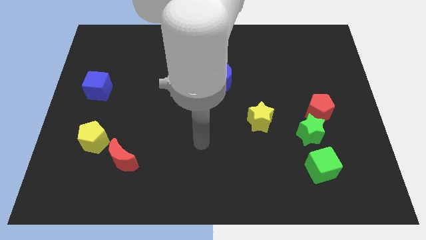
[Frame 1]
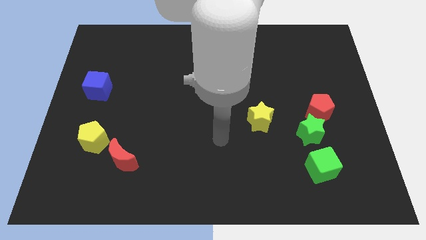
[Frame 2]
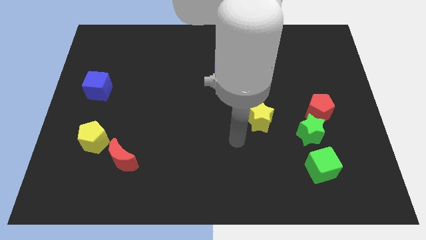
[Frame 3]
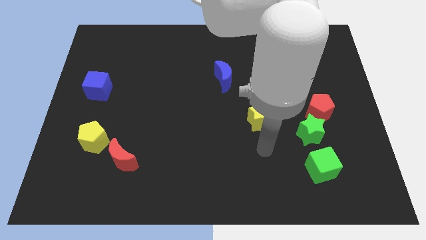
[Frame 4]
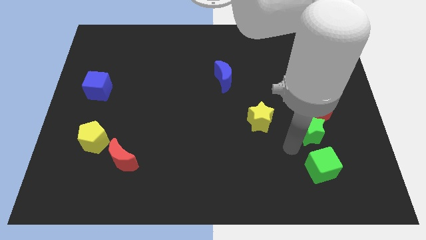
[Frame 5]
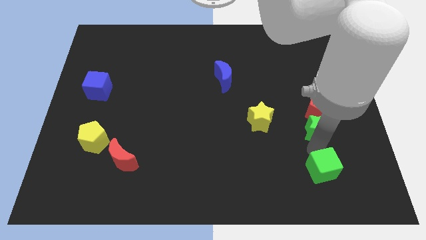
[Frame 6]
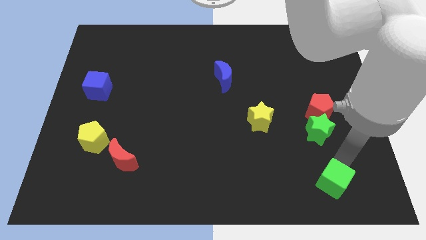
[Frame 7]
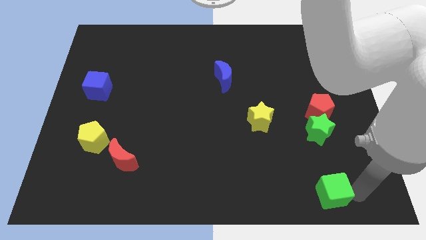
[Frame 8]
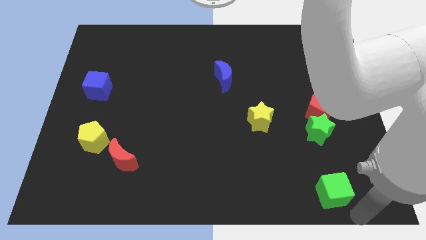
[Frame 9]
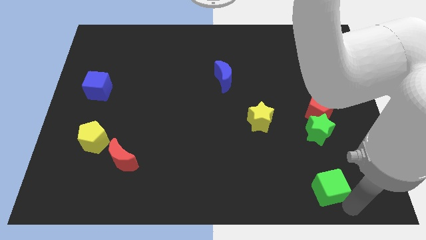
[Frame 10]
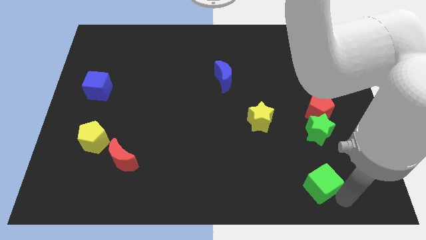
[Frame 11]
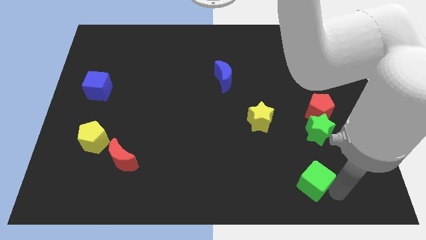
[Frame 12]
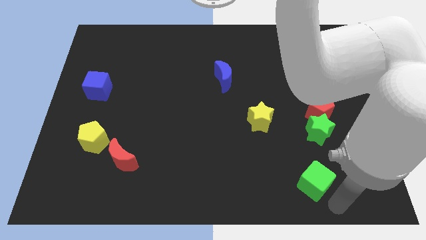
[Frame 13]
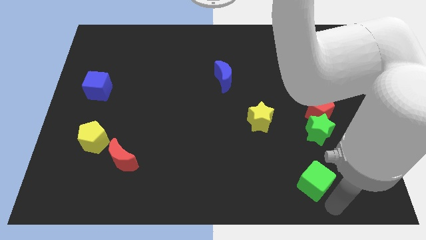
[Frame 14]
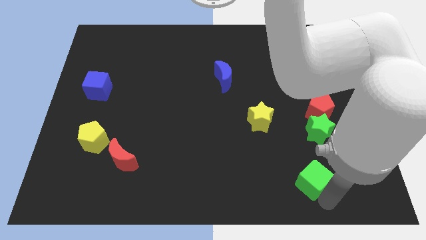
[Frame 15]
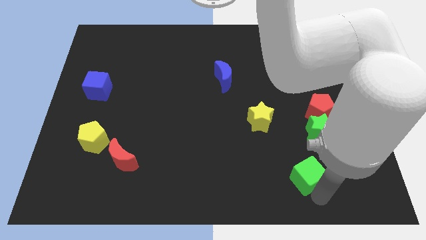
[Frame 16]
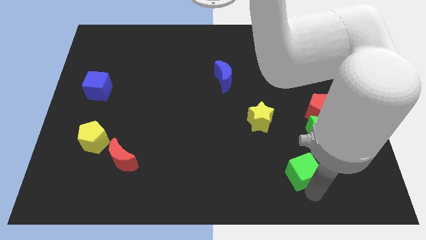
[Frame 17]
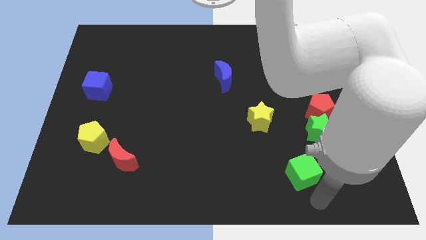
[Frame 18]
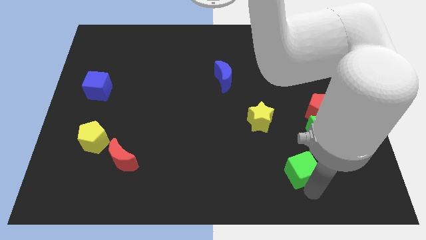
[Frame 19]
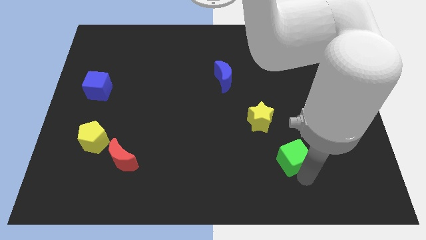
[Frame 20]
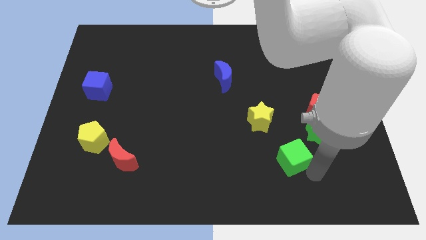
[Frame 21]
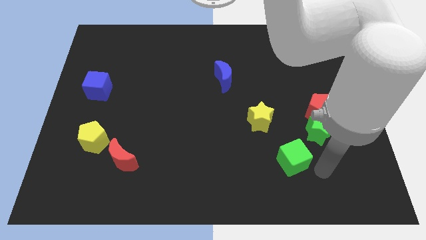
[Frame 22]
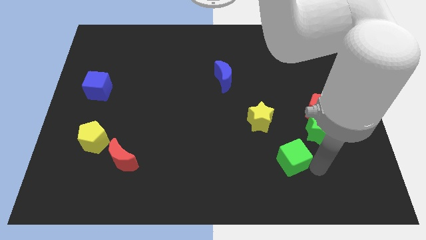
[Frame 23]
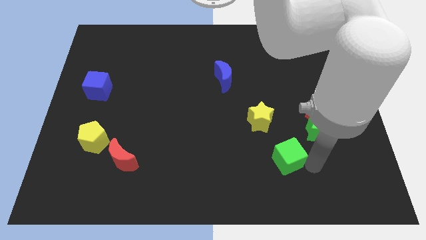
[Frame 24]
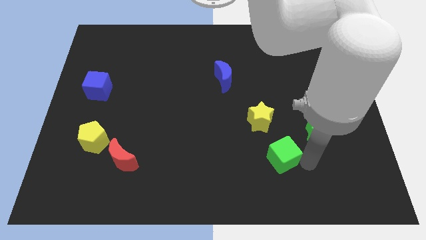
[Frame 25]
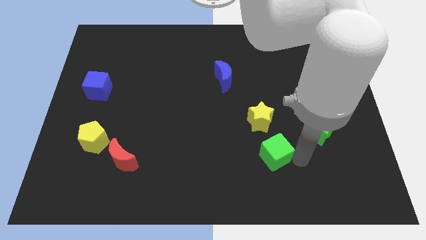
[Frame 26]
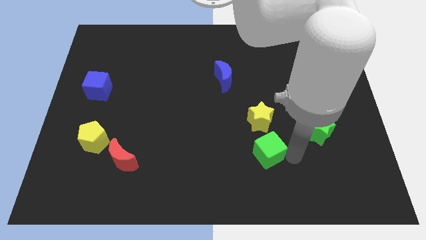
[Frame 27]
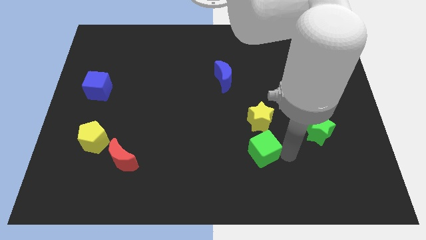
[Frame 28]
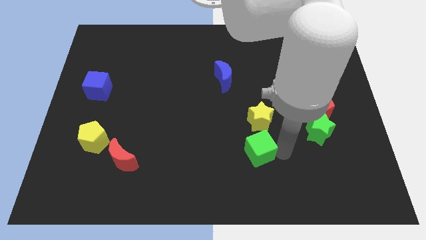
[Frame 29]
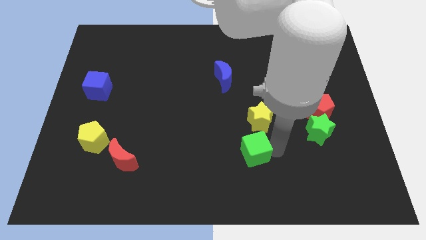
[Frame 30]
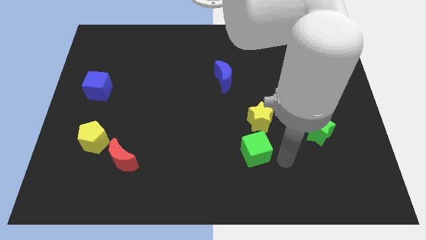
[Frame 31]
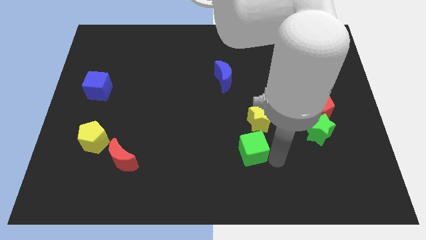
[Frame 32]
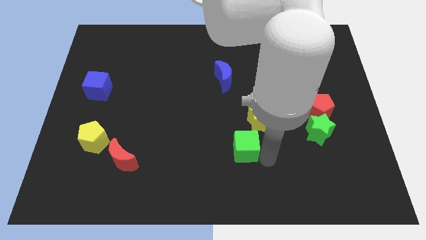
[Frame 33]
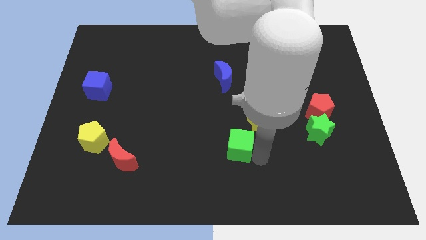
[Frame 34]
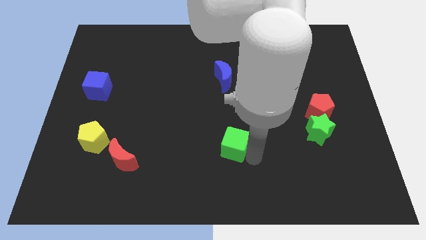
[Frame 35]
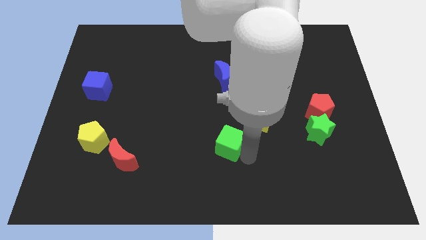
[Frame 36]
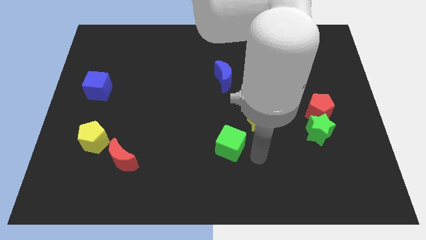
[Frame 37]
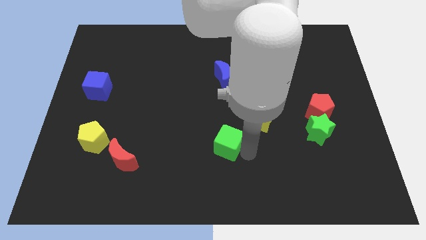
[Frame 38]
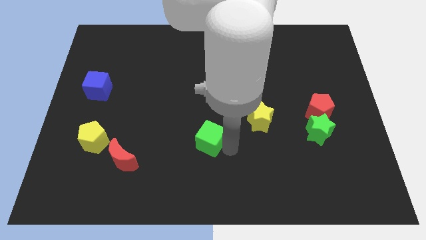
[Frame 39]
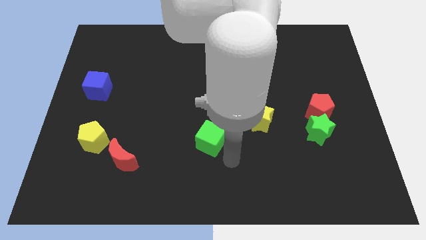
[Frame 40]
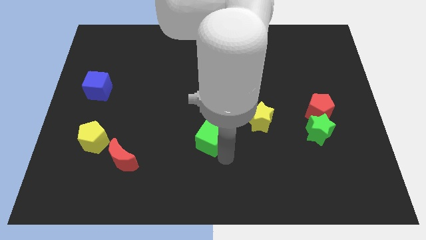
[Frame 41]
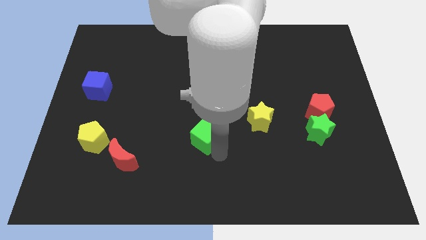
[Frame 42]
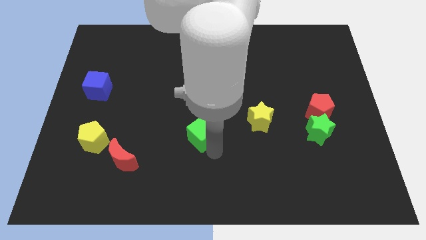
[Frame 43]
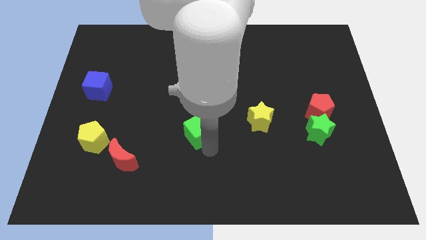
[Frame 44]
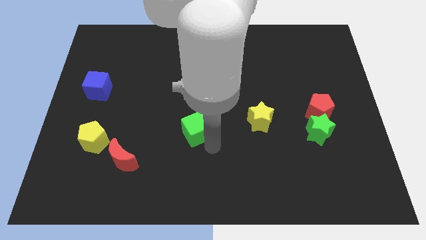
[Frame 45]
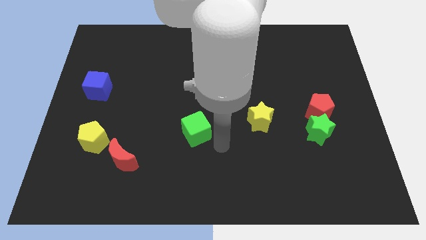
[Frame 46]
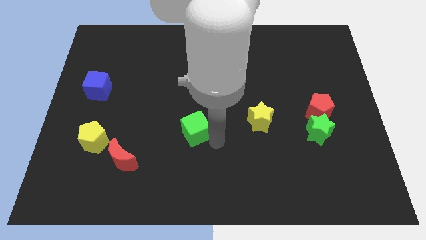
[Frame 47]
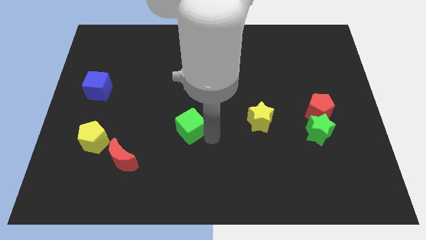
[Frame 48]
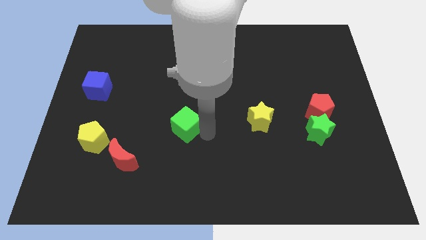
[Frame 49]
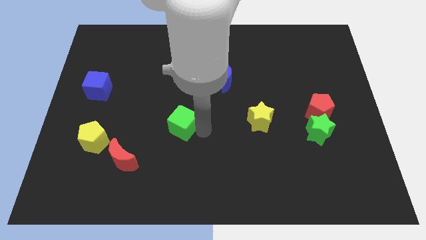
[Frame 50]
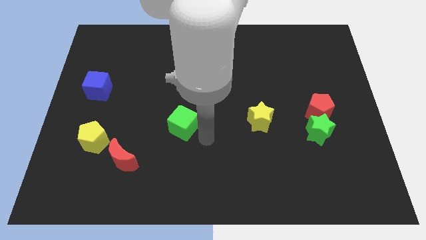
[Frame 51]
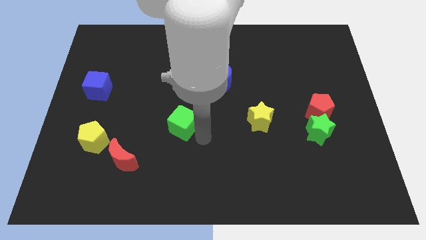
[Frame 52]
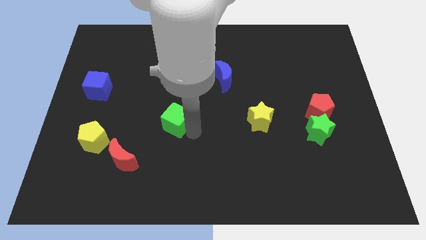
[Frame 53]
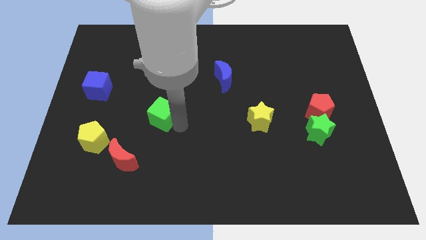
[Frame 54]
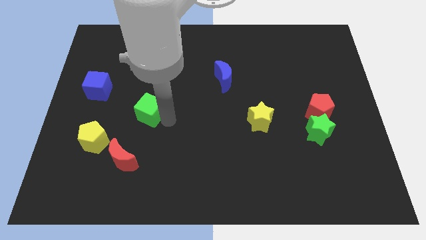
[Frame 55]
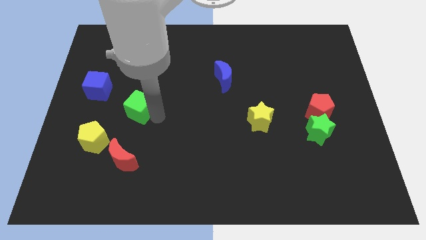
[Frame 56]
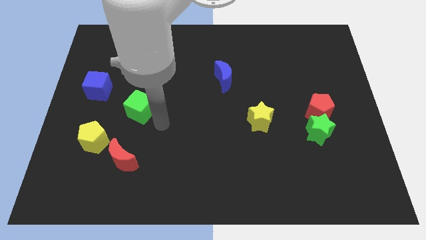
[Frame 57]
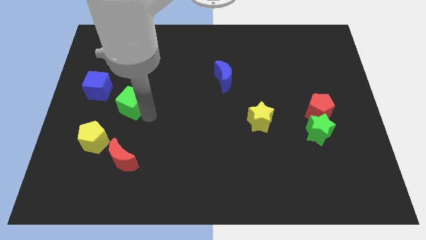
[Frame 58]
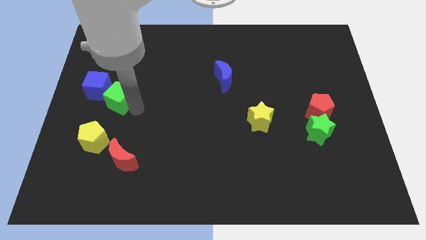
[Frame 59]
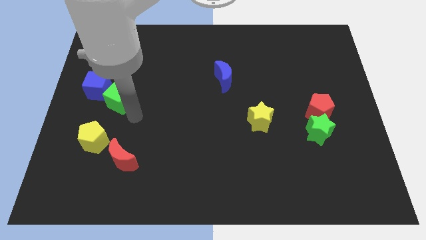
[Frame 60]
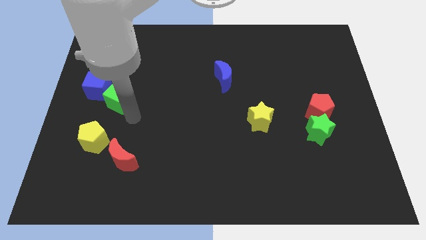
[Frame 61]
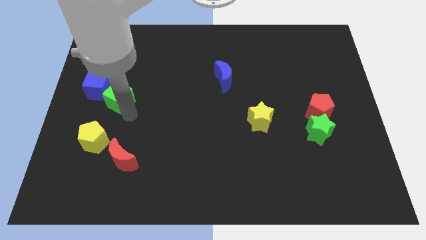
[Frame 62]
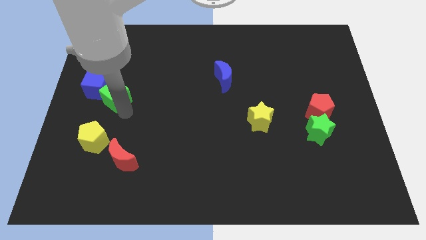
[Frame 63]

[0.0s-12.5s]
move the green cube towards the blue cube
